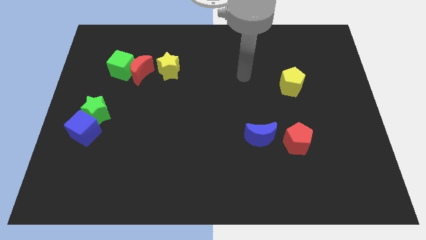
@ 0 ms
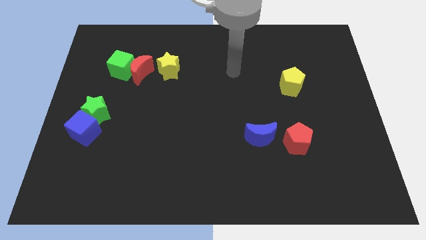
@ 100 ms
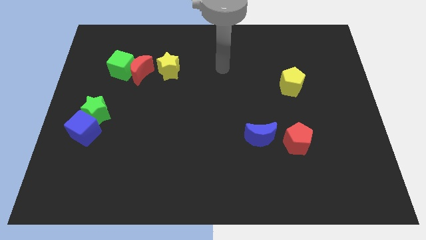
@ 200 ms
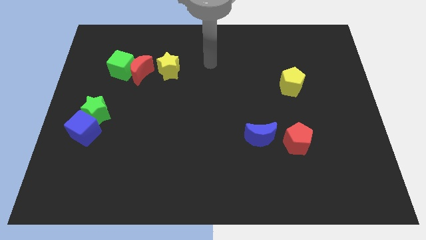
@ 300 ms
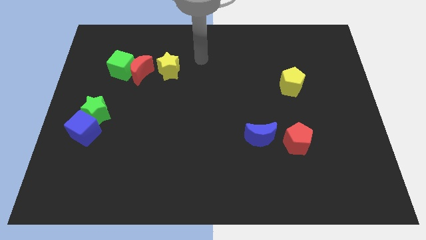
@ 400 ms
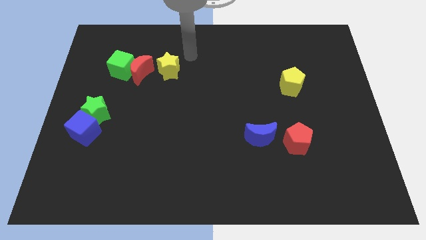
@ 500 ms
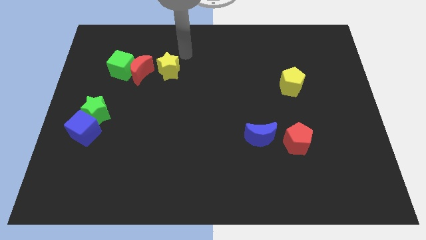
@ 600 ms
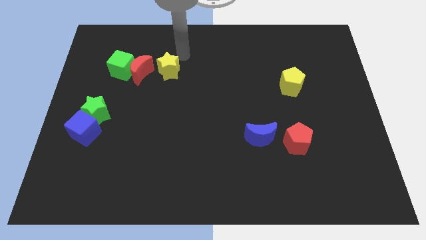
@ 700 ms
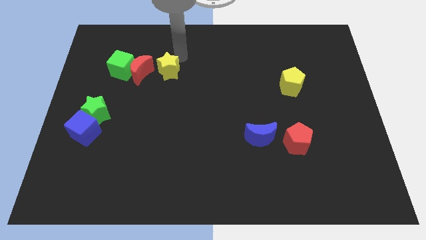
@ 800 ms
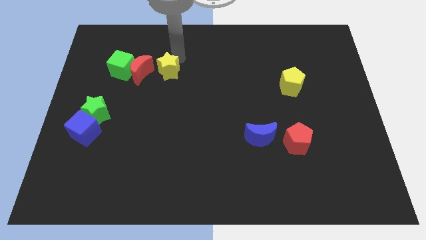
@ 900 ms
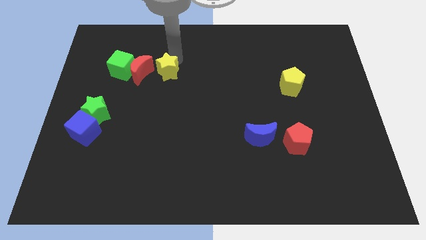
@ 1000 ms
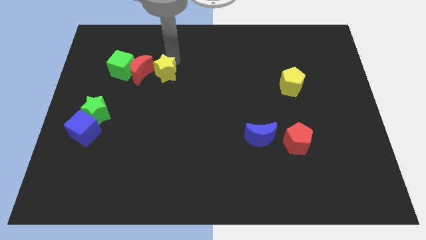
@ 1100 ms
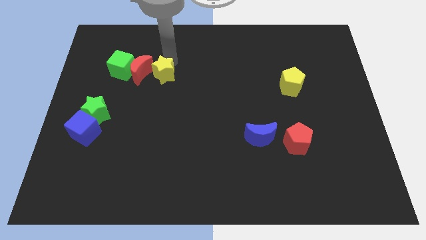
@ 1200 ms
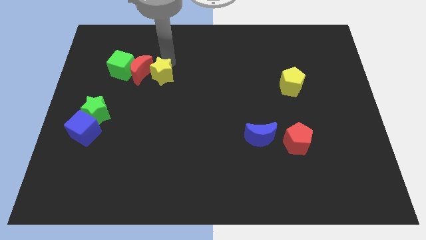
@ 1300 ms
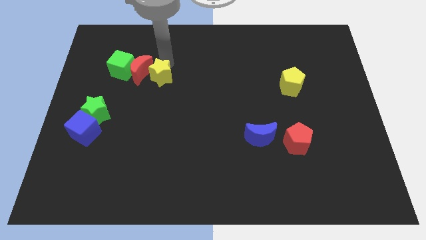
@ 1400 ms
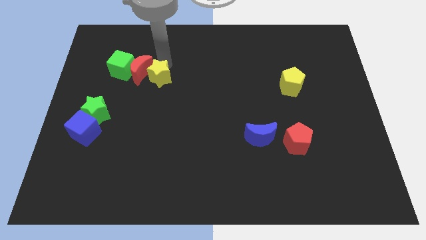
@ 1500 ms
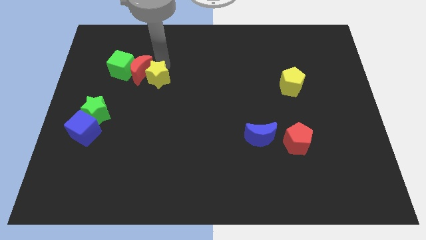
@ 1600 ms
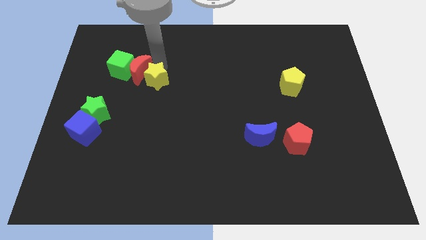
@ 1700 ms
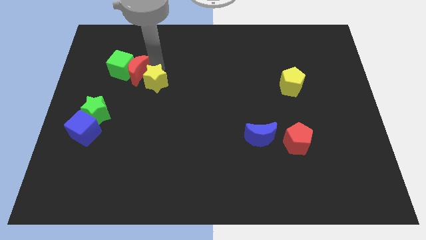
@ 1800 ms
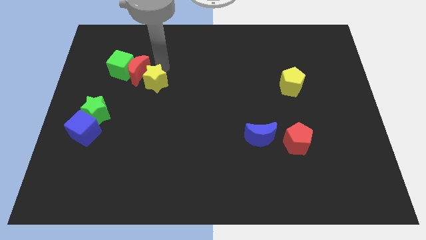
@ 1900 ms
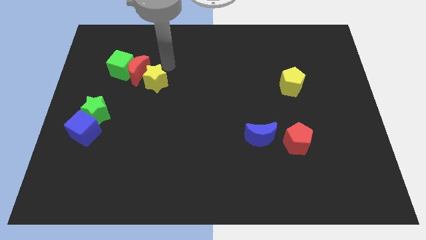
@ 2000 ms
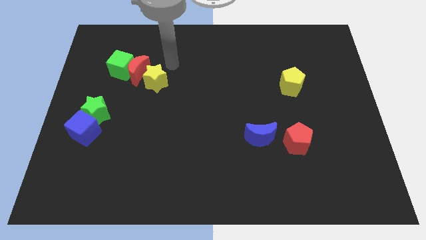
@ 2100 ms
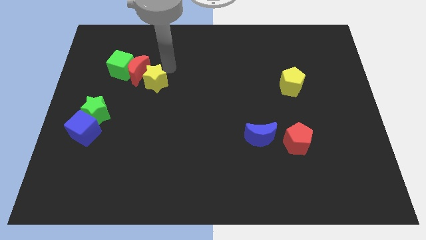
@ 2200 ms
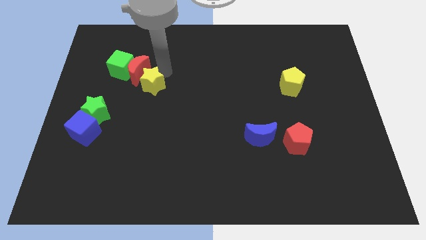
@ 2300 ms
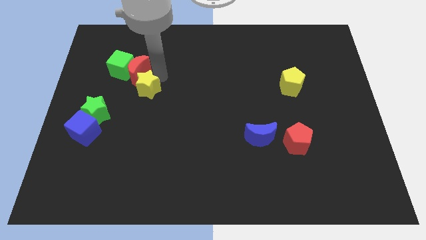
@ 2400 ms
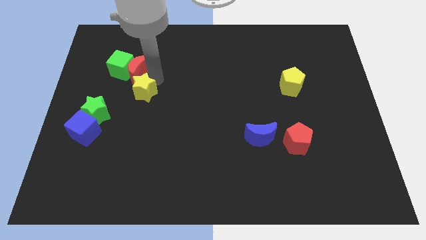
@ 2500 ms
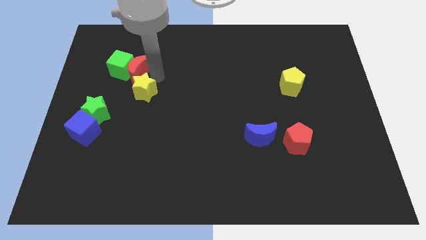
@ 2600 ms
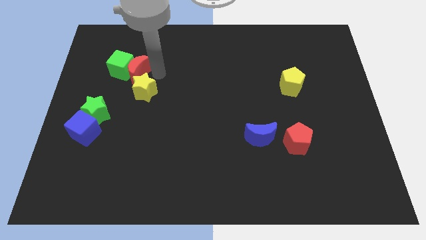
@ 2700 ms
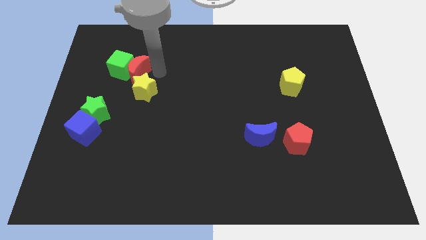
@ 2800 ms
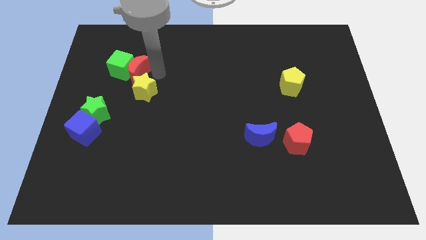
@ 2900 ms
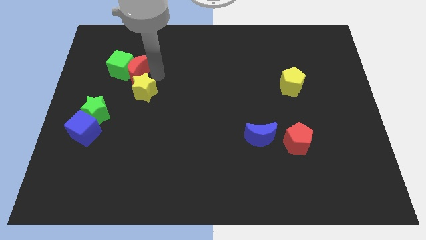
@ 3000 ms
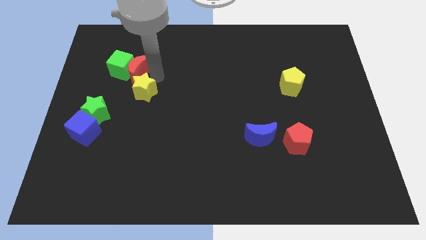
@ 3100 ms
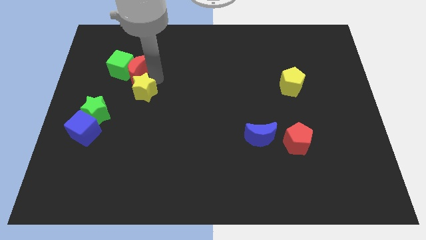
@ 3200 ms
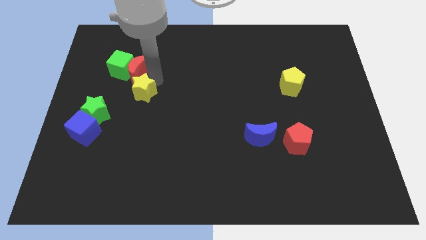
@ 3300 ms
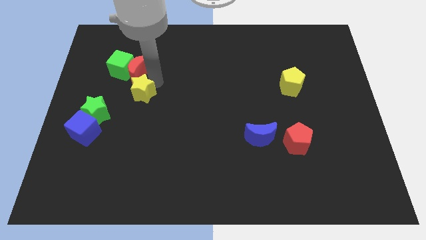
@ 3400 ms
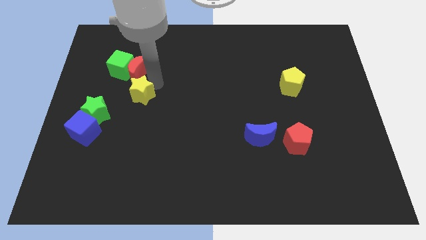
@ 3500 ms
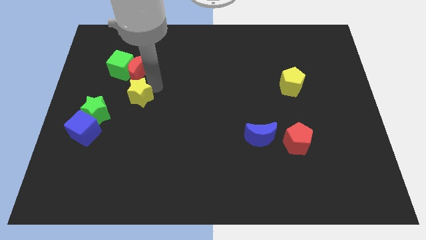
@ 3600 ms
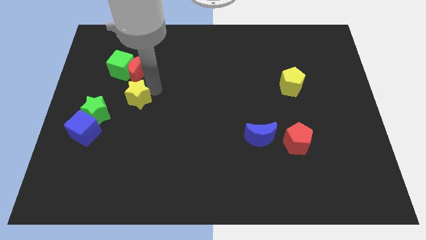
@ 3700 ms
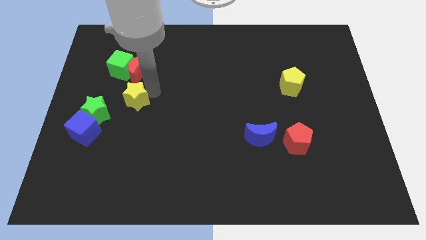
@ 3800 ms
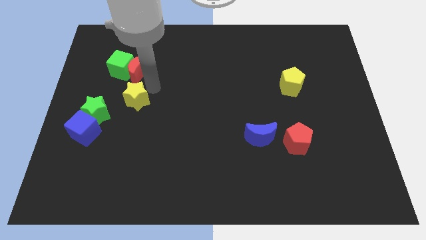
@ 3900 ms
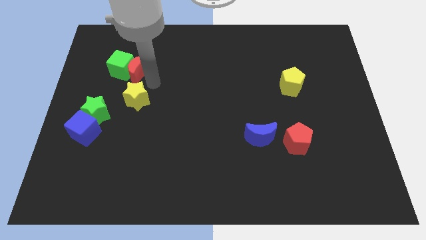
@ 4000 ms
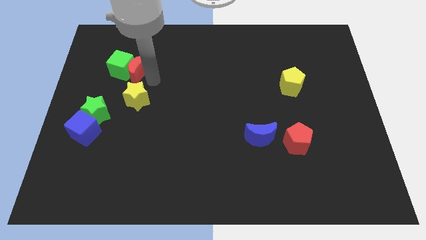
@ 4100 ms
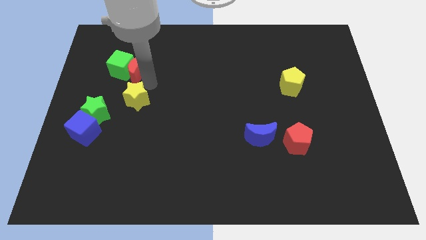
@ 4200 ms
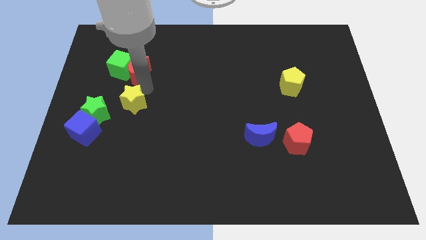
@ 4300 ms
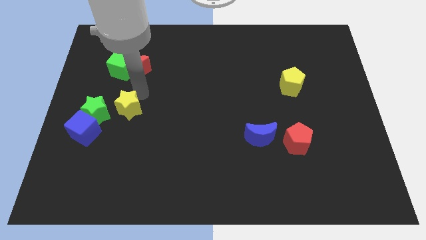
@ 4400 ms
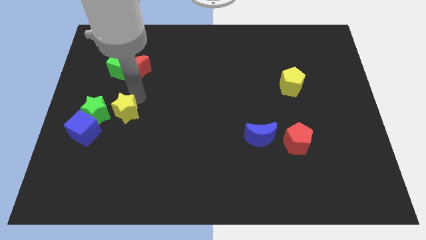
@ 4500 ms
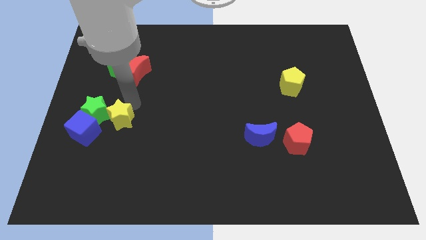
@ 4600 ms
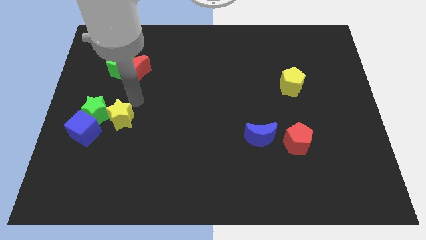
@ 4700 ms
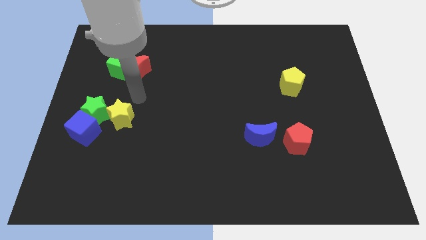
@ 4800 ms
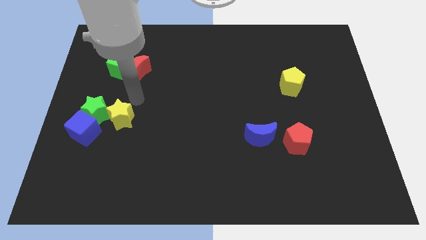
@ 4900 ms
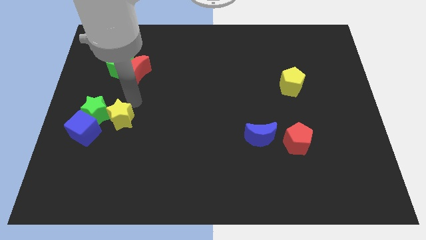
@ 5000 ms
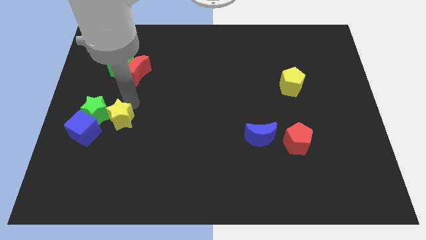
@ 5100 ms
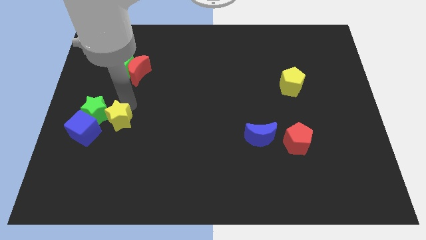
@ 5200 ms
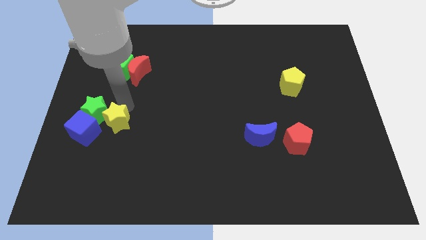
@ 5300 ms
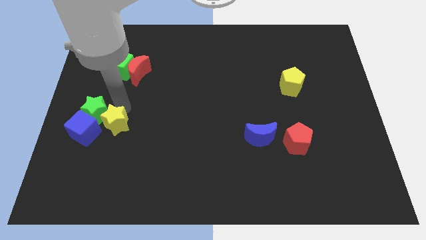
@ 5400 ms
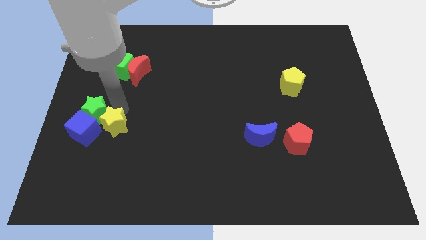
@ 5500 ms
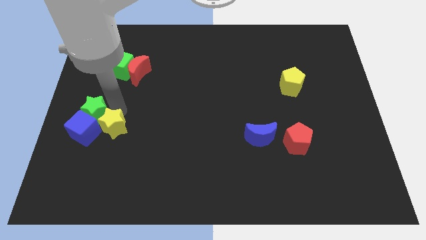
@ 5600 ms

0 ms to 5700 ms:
move the yellow star below the green star

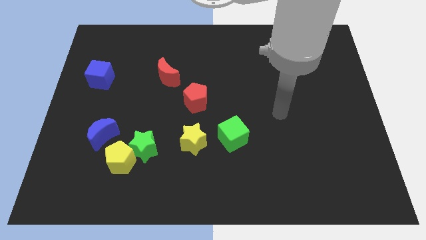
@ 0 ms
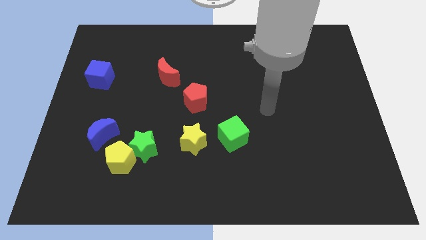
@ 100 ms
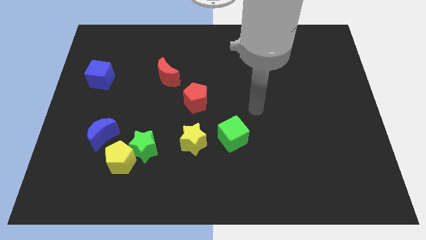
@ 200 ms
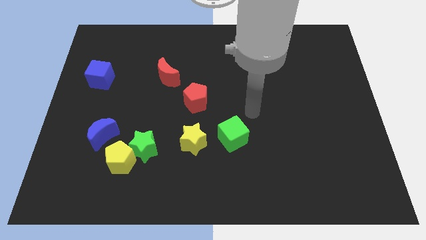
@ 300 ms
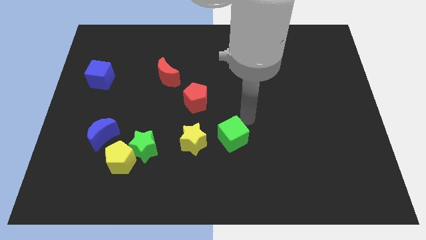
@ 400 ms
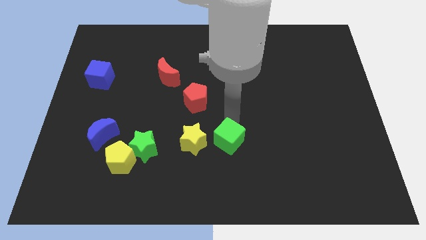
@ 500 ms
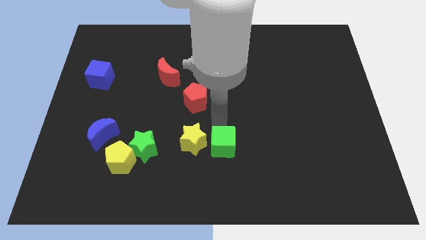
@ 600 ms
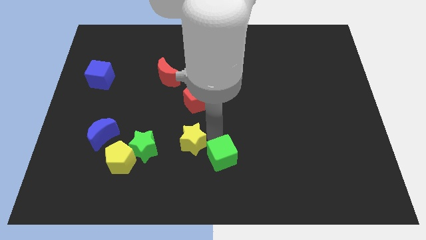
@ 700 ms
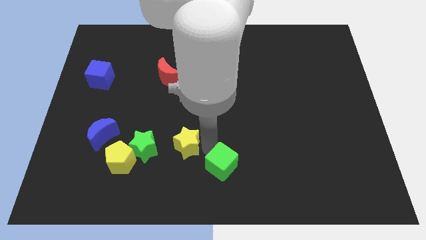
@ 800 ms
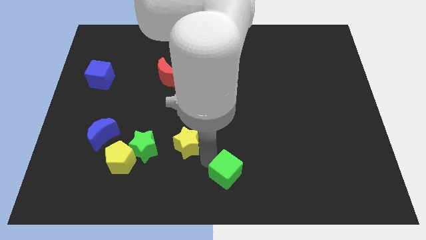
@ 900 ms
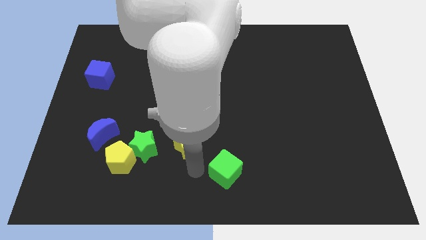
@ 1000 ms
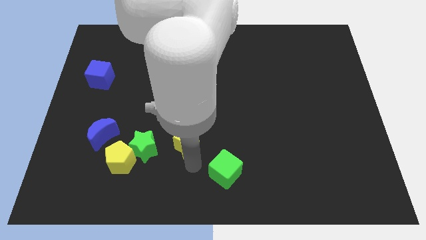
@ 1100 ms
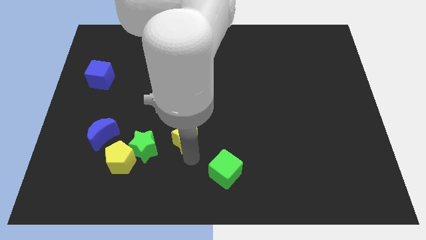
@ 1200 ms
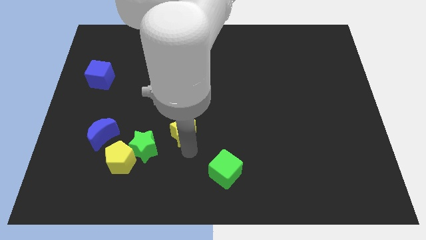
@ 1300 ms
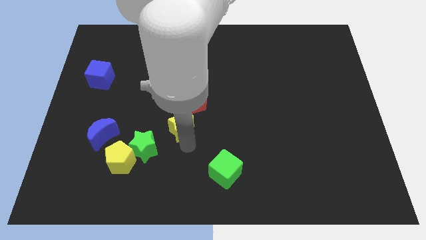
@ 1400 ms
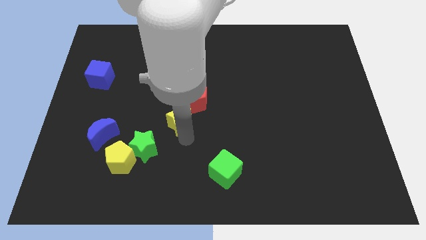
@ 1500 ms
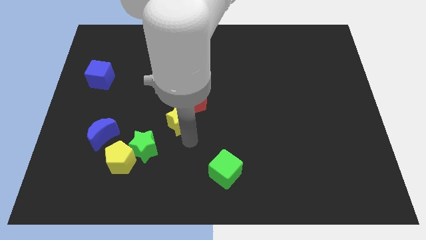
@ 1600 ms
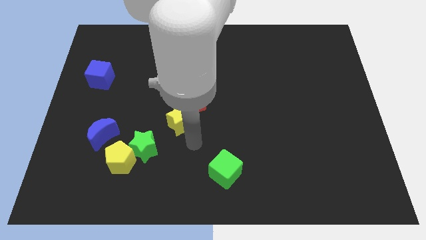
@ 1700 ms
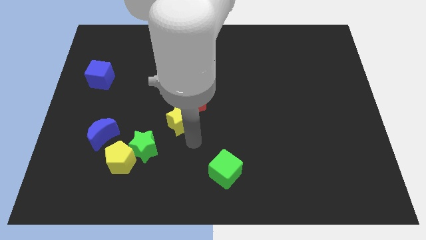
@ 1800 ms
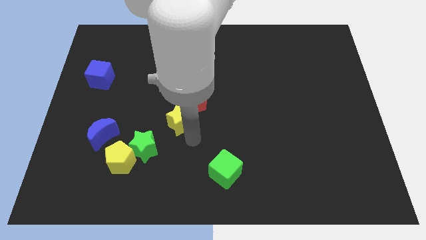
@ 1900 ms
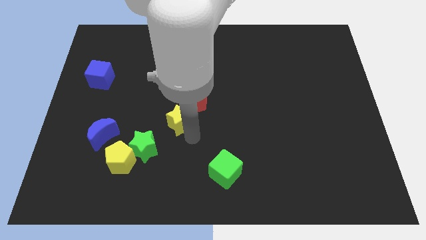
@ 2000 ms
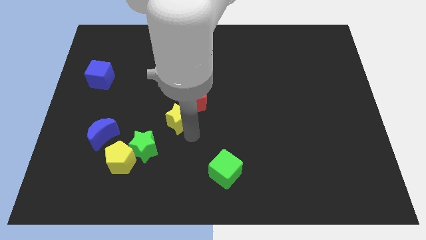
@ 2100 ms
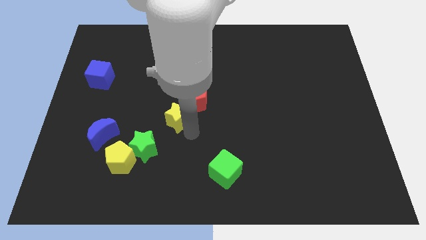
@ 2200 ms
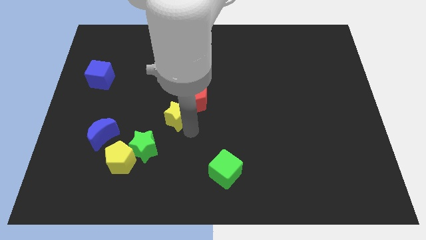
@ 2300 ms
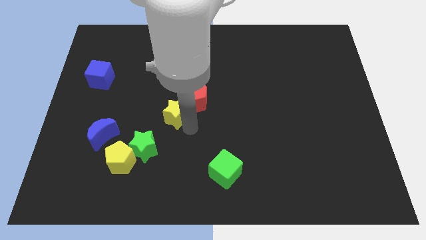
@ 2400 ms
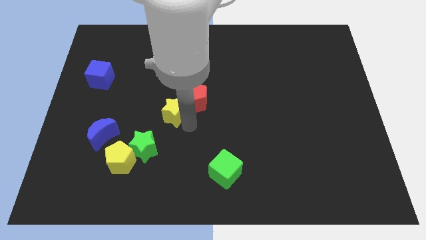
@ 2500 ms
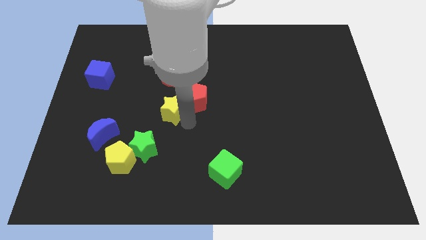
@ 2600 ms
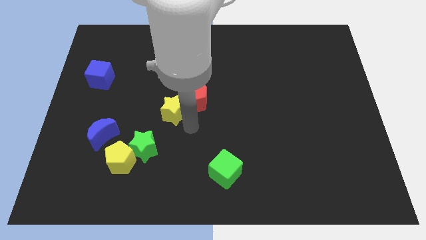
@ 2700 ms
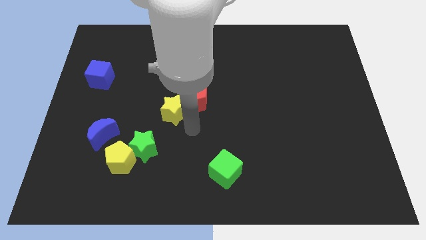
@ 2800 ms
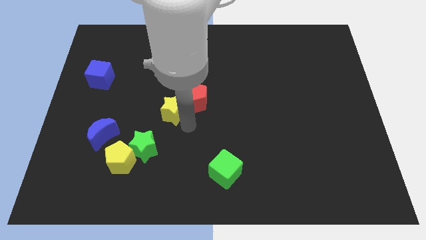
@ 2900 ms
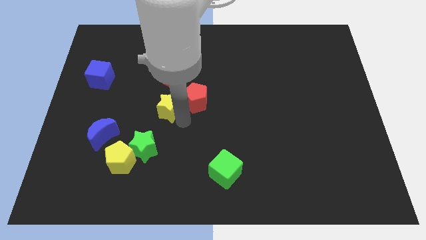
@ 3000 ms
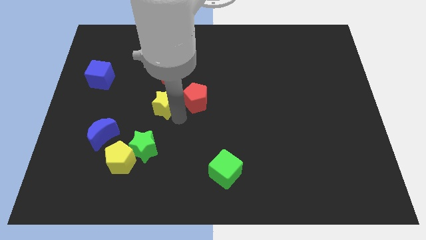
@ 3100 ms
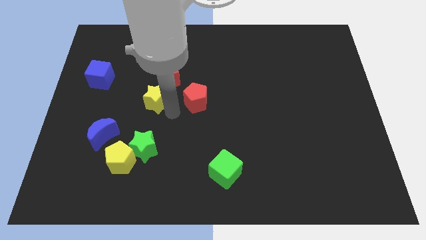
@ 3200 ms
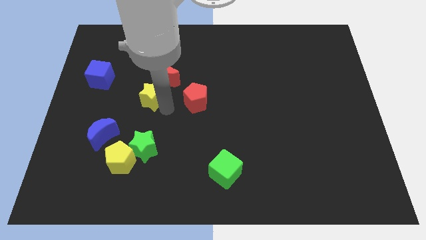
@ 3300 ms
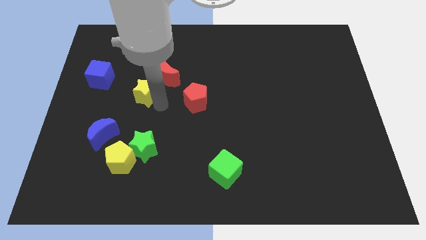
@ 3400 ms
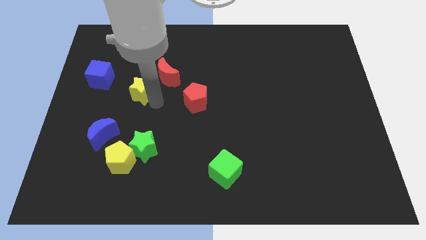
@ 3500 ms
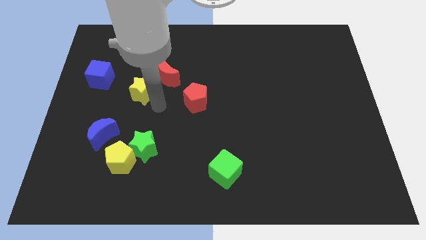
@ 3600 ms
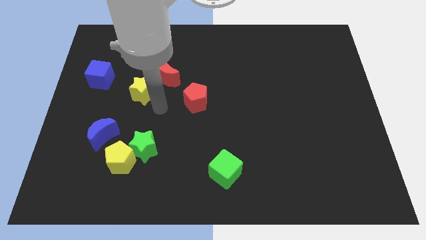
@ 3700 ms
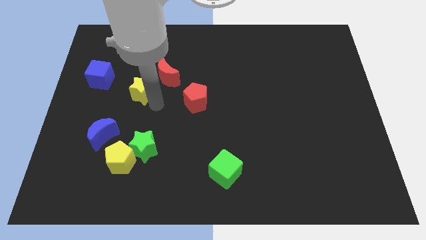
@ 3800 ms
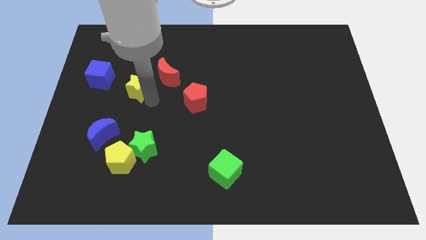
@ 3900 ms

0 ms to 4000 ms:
move the yellow star just left of the red moon
